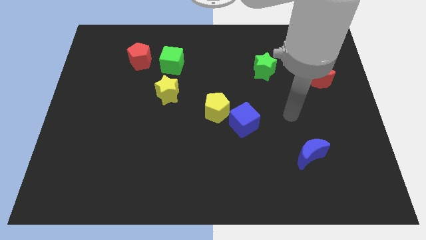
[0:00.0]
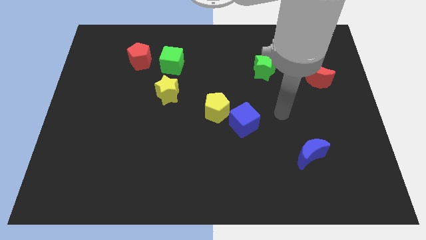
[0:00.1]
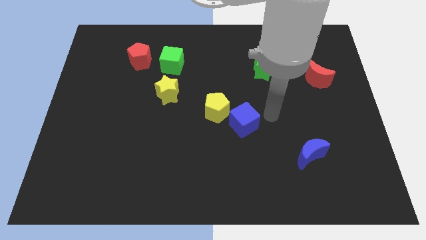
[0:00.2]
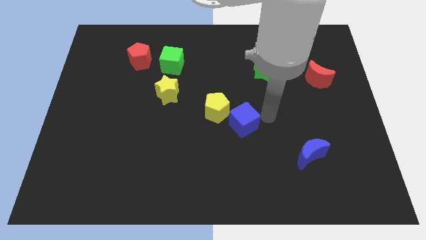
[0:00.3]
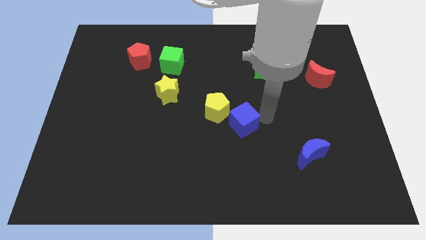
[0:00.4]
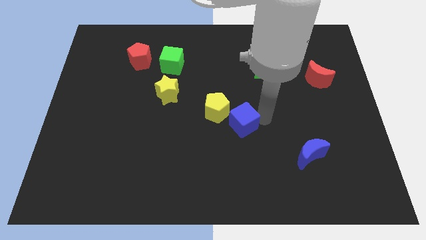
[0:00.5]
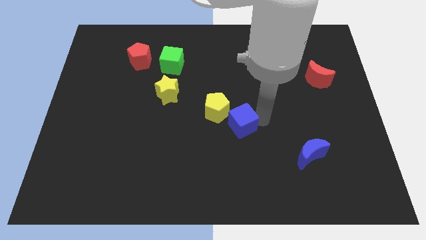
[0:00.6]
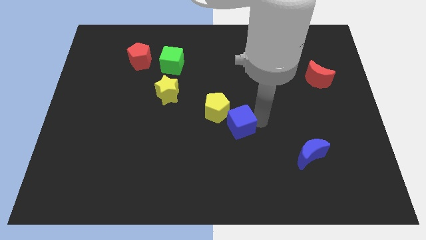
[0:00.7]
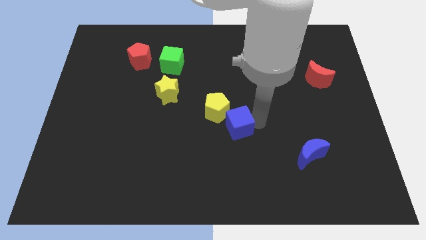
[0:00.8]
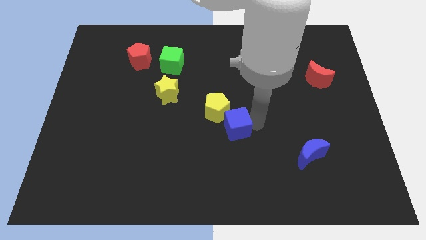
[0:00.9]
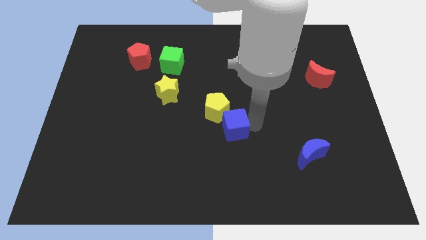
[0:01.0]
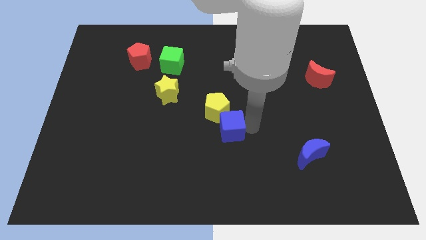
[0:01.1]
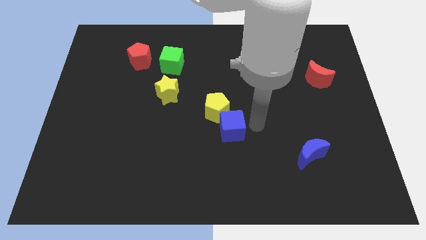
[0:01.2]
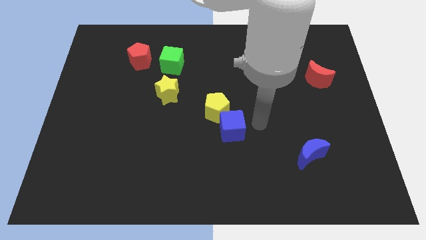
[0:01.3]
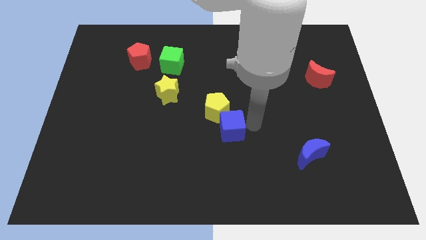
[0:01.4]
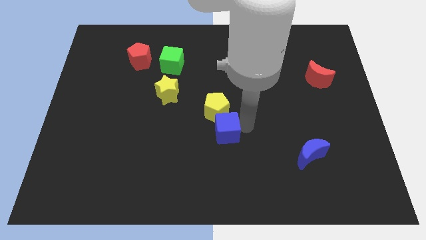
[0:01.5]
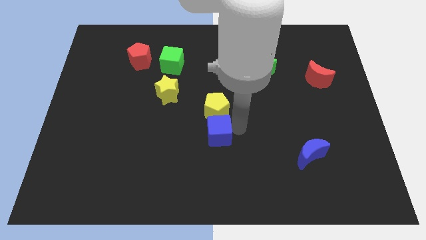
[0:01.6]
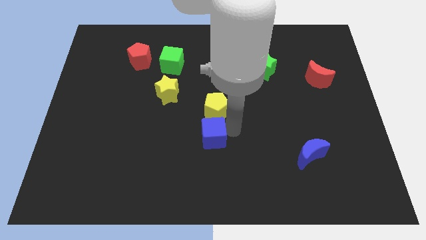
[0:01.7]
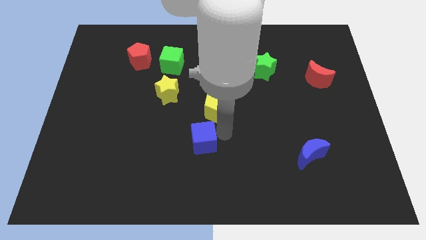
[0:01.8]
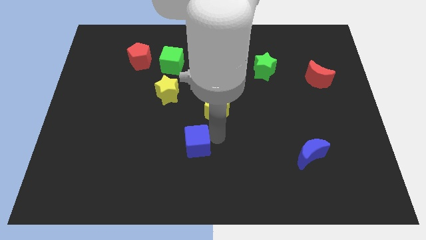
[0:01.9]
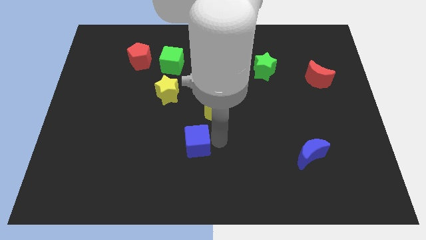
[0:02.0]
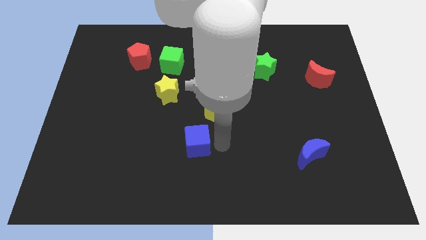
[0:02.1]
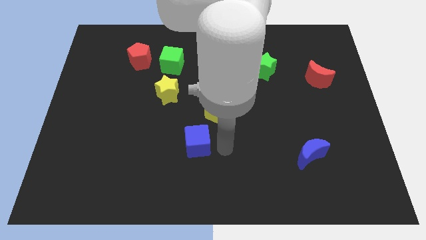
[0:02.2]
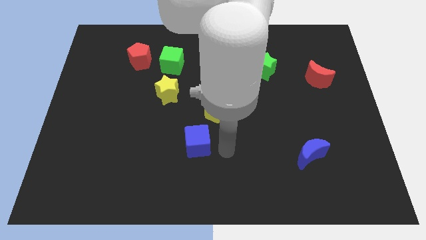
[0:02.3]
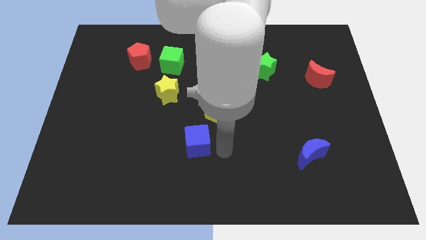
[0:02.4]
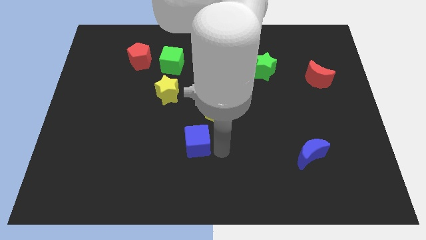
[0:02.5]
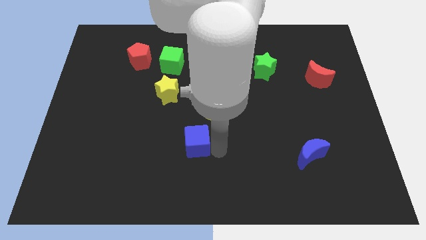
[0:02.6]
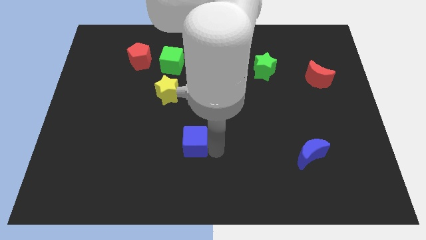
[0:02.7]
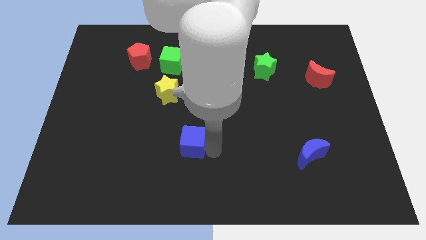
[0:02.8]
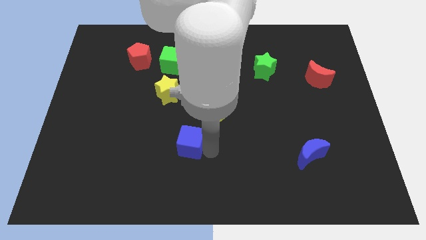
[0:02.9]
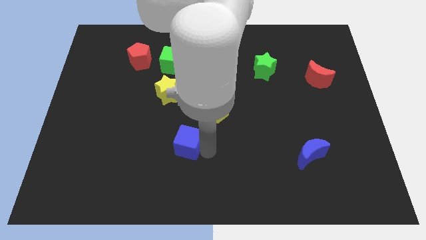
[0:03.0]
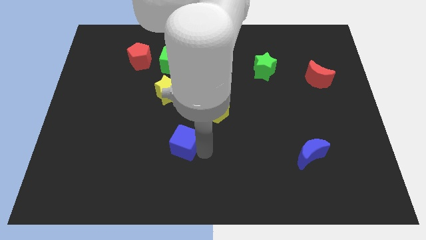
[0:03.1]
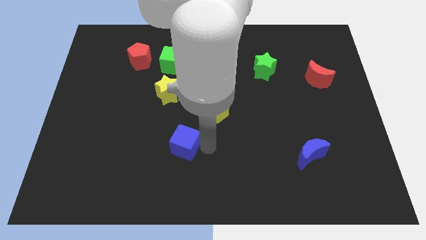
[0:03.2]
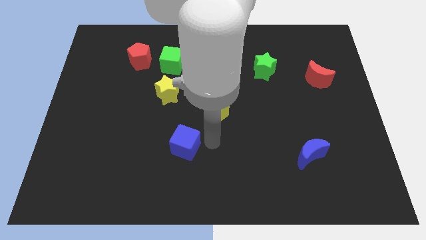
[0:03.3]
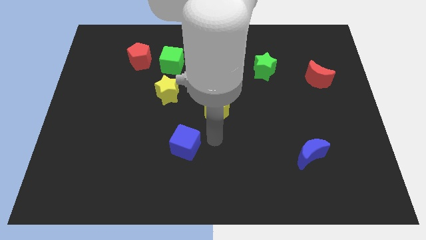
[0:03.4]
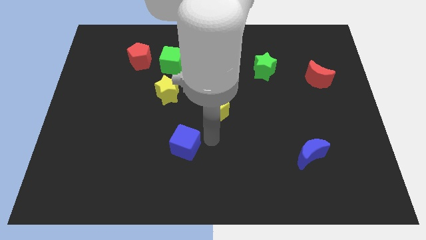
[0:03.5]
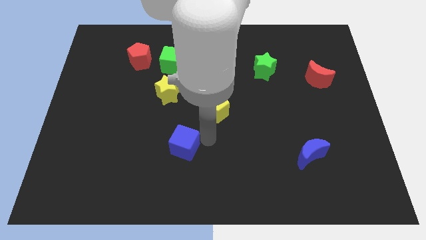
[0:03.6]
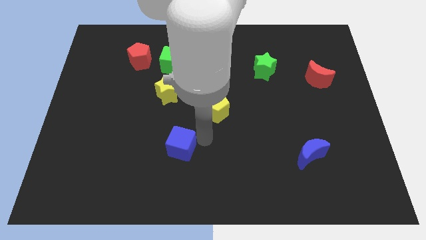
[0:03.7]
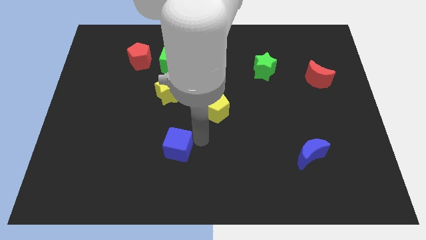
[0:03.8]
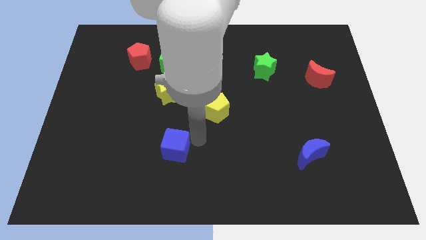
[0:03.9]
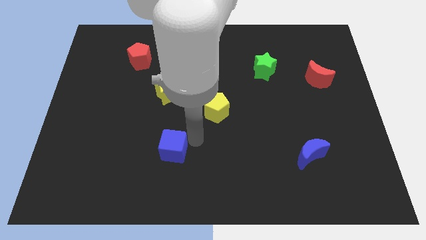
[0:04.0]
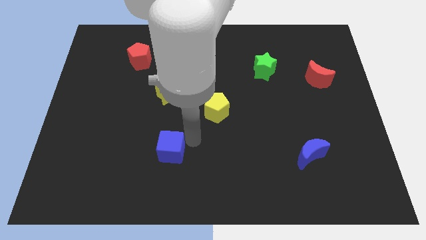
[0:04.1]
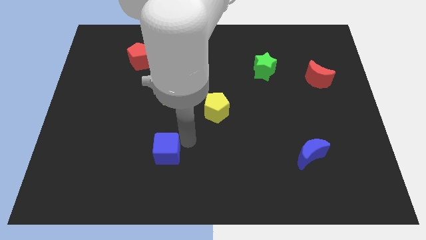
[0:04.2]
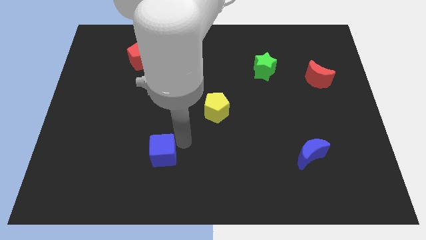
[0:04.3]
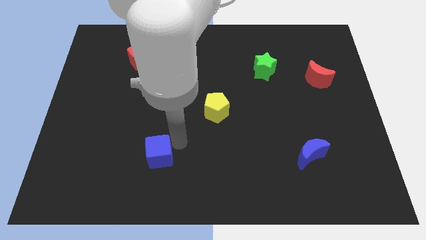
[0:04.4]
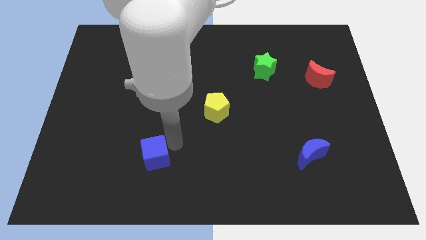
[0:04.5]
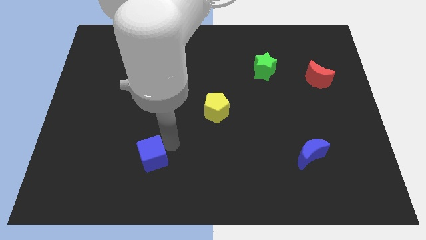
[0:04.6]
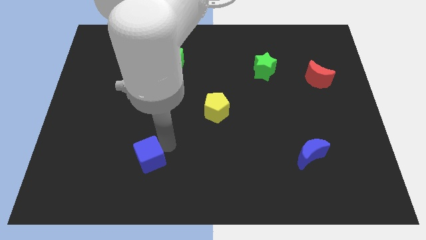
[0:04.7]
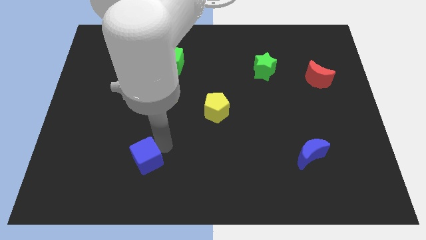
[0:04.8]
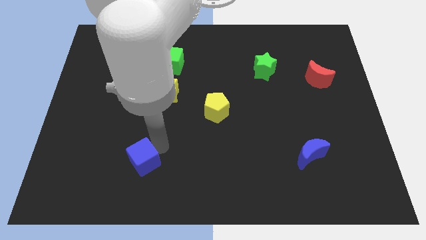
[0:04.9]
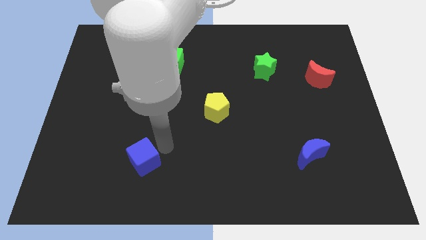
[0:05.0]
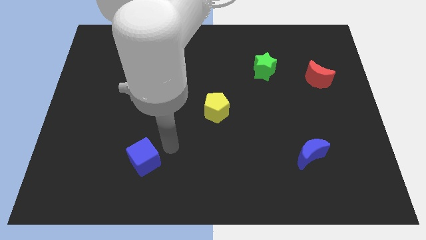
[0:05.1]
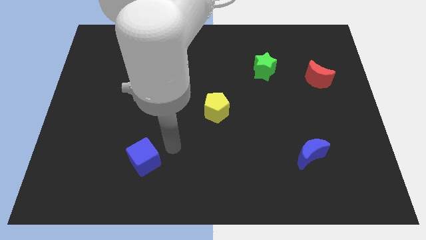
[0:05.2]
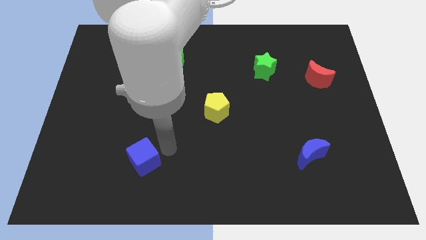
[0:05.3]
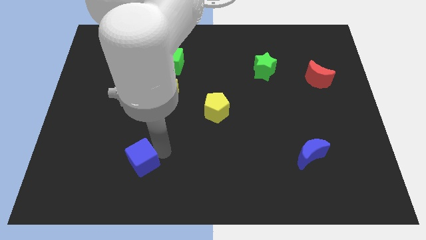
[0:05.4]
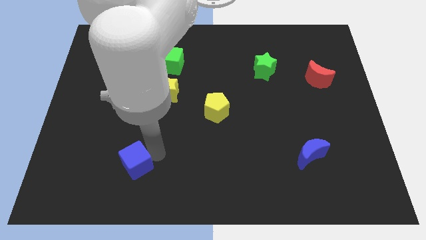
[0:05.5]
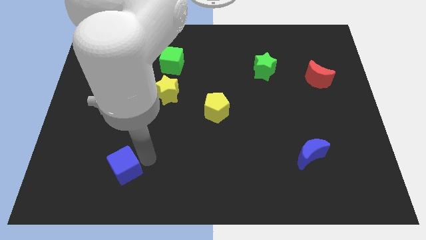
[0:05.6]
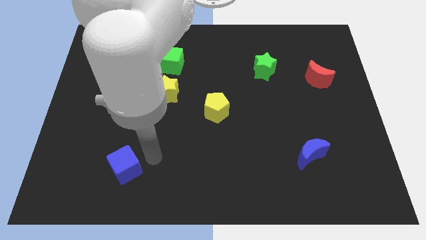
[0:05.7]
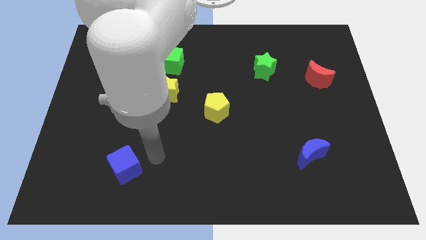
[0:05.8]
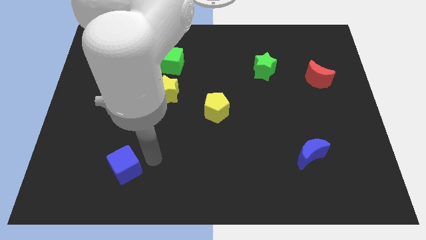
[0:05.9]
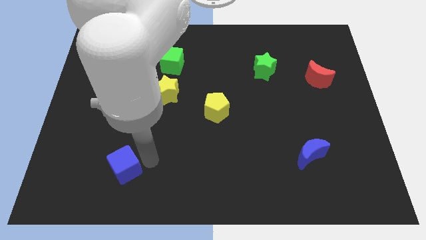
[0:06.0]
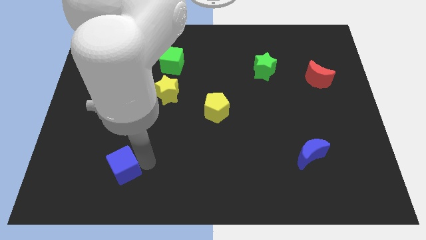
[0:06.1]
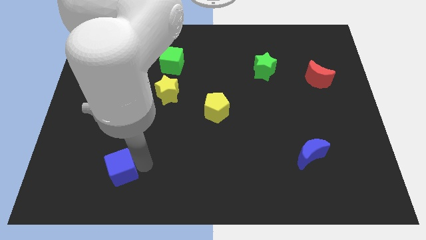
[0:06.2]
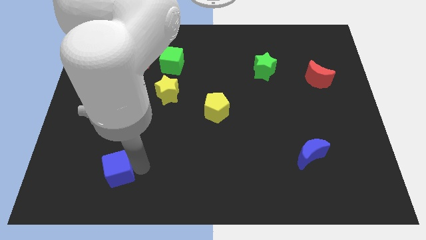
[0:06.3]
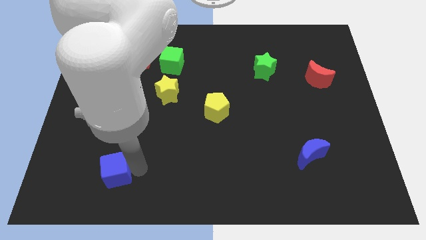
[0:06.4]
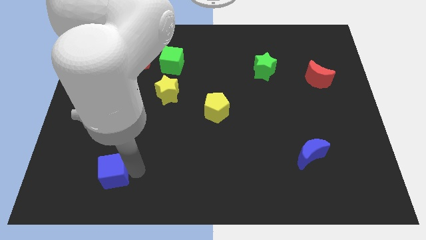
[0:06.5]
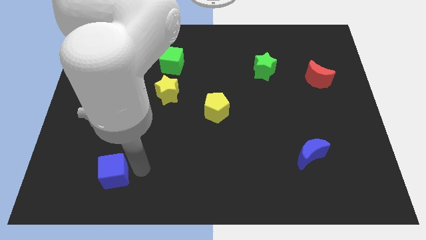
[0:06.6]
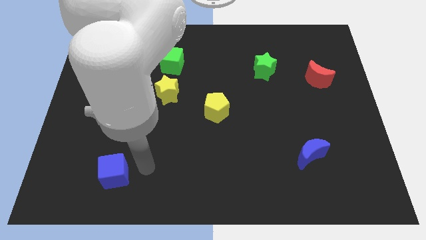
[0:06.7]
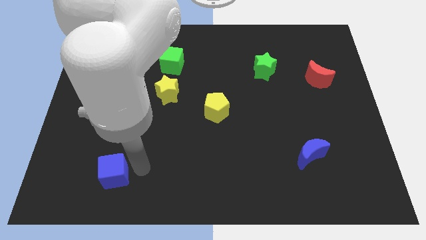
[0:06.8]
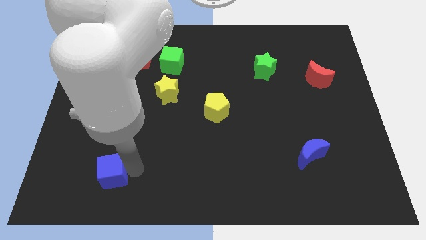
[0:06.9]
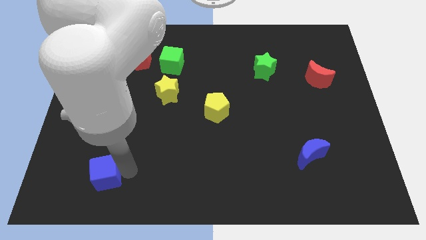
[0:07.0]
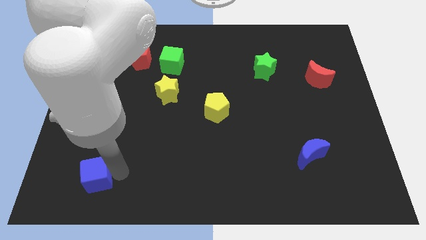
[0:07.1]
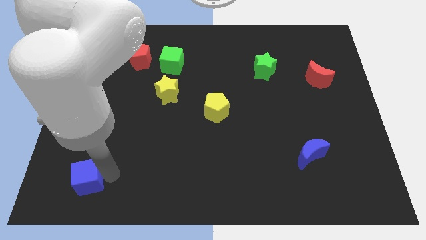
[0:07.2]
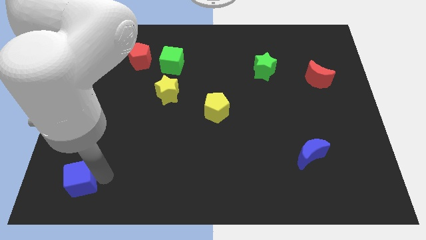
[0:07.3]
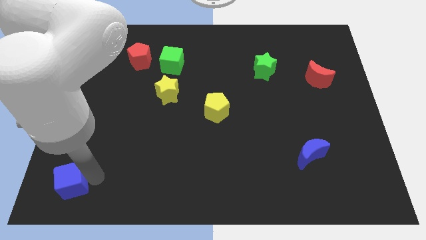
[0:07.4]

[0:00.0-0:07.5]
slide the blue cube to the bottom left corner
